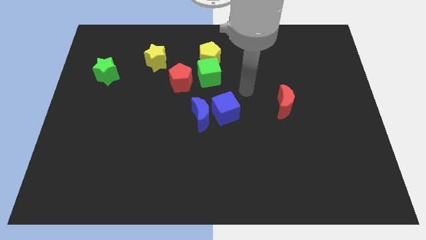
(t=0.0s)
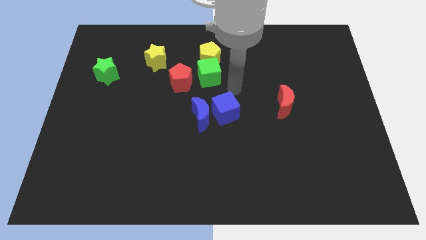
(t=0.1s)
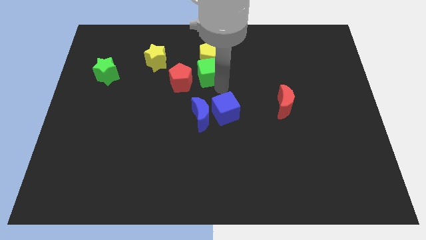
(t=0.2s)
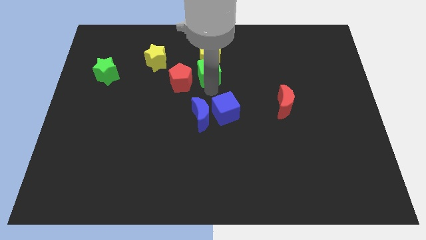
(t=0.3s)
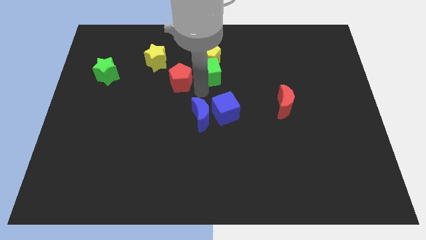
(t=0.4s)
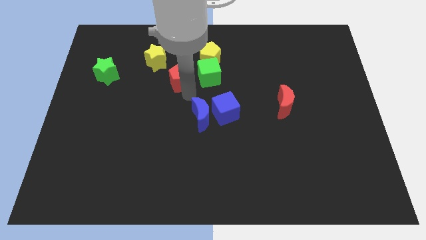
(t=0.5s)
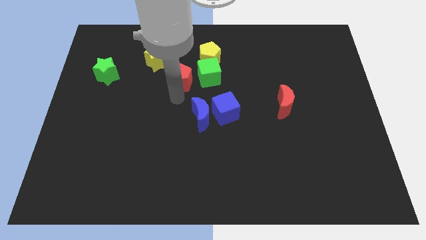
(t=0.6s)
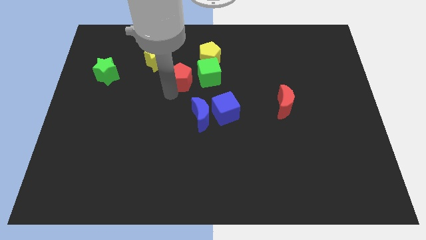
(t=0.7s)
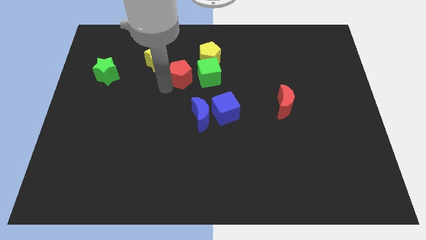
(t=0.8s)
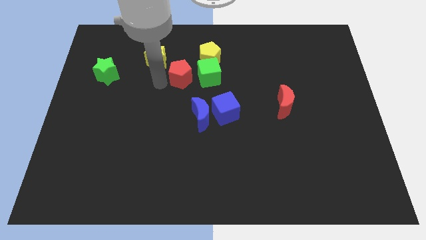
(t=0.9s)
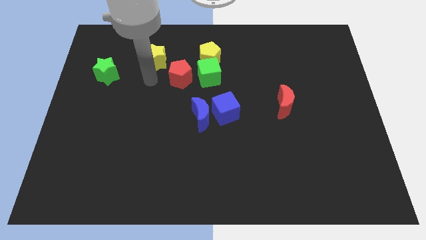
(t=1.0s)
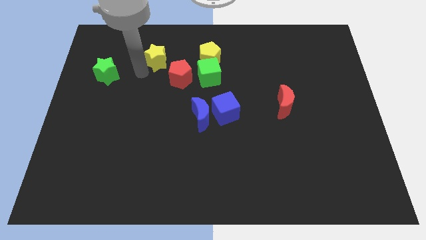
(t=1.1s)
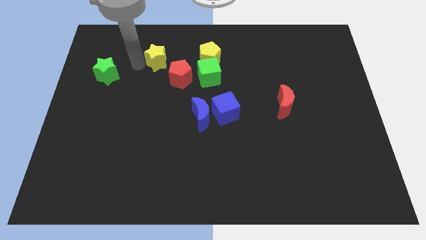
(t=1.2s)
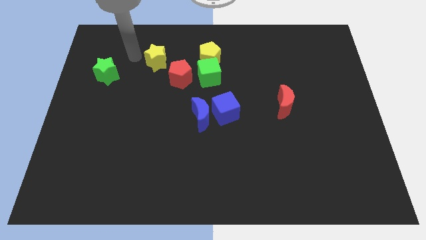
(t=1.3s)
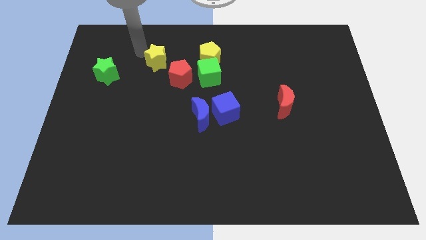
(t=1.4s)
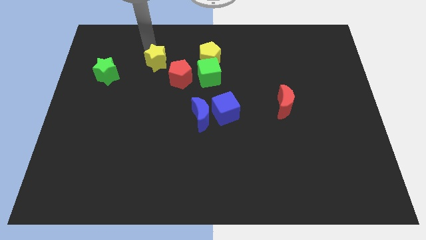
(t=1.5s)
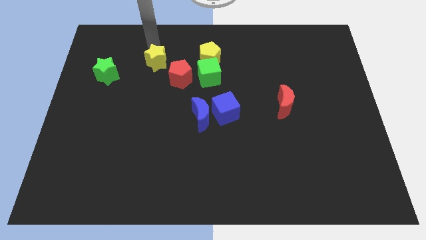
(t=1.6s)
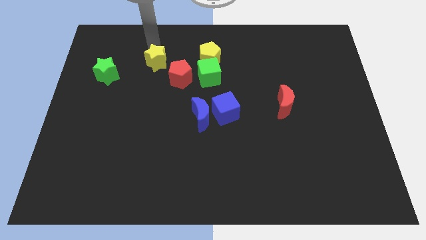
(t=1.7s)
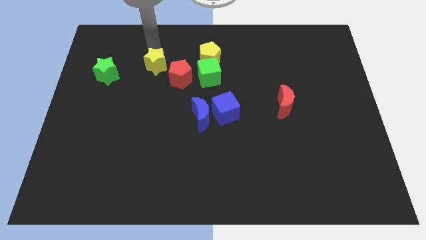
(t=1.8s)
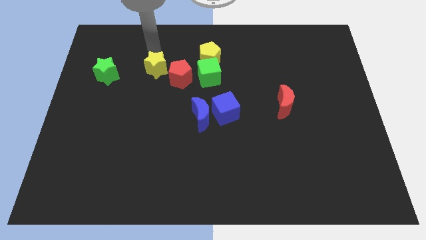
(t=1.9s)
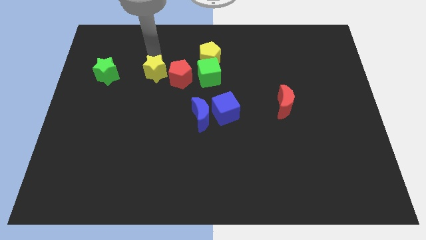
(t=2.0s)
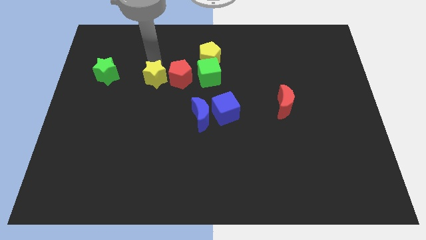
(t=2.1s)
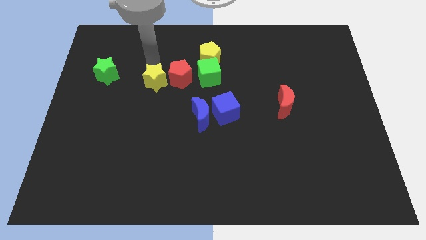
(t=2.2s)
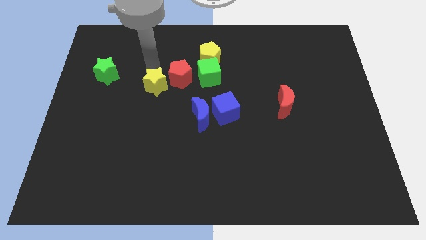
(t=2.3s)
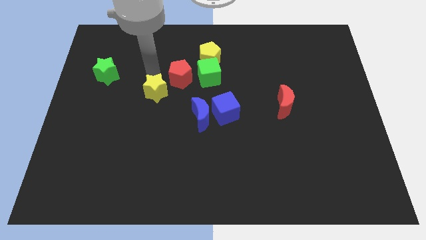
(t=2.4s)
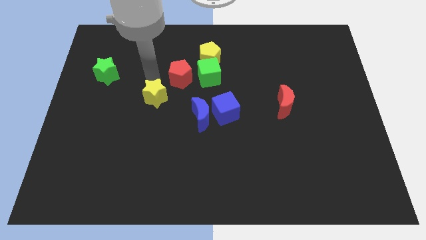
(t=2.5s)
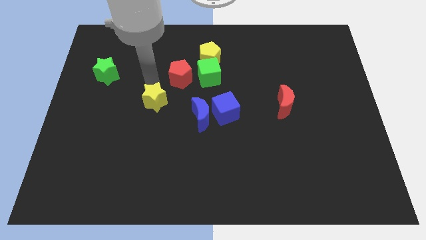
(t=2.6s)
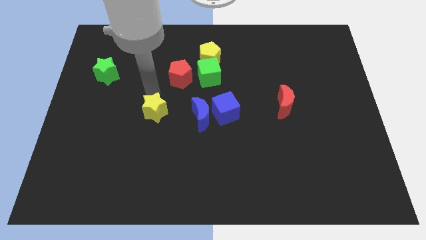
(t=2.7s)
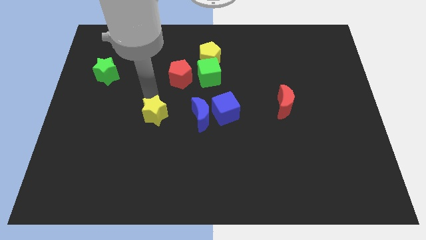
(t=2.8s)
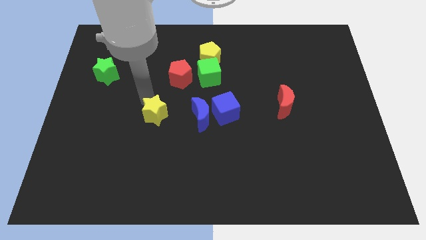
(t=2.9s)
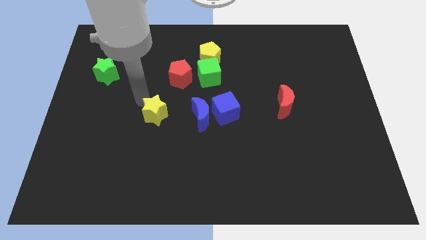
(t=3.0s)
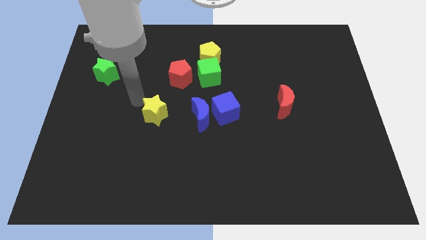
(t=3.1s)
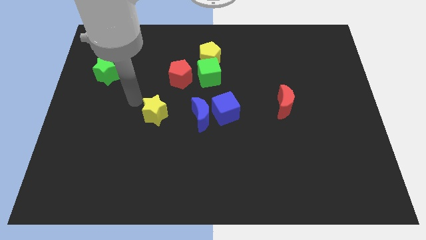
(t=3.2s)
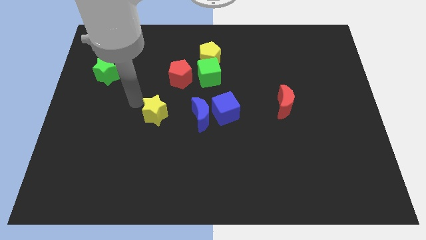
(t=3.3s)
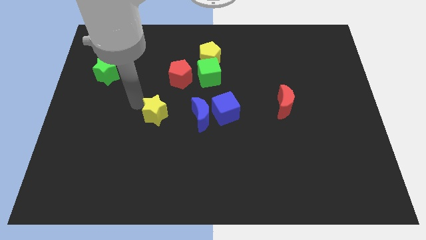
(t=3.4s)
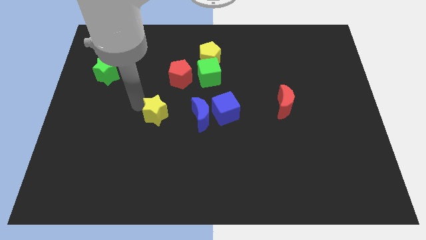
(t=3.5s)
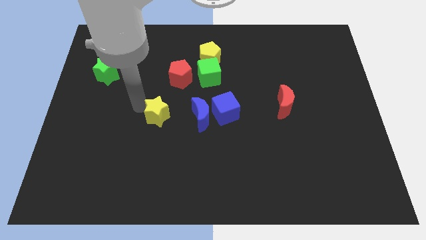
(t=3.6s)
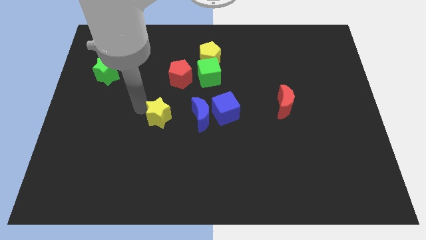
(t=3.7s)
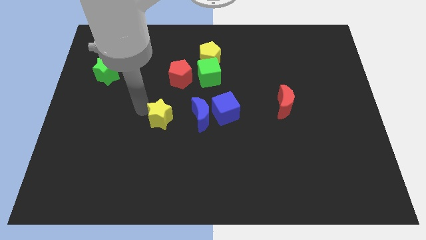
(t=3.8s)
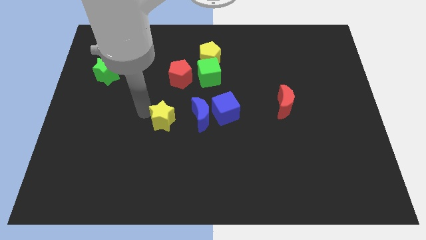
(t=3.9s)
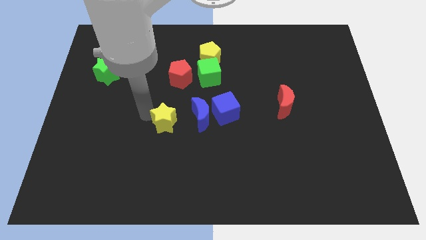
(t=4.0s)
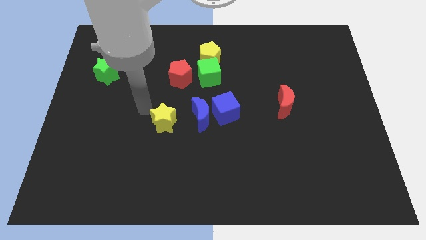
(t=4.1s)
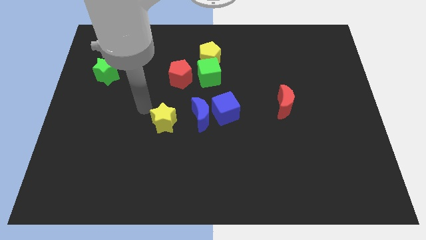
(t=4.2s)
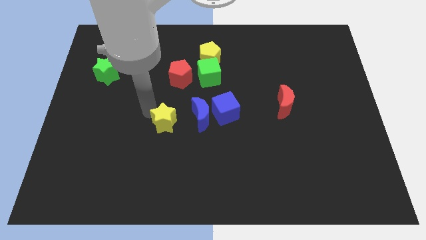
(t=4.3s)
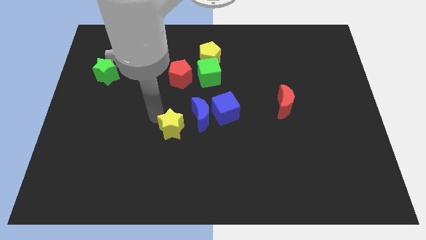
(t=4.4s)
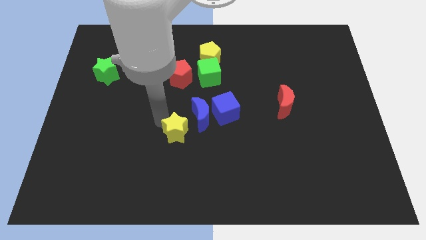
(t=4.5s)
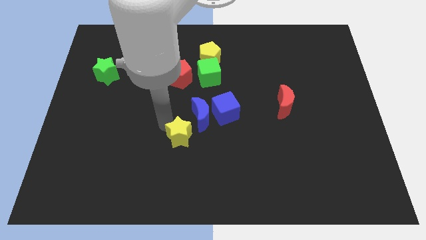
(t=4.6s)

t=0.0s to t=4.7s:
slide the yellow star to the bottom side of the blue moon

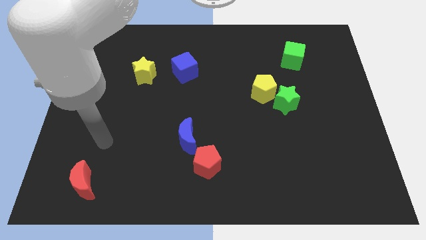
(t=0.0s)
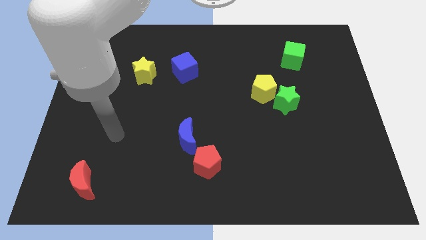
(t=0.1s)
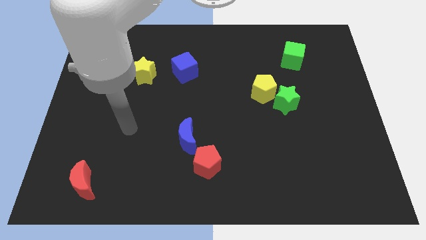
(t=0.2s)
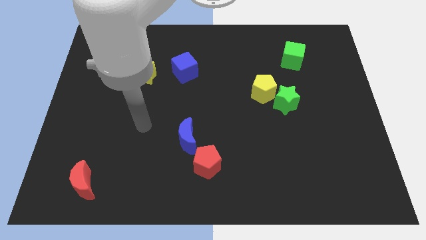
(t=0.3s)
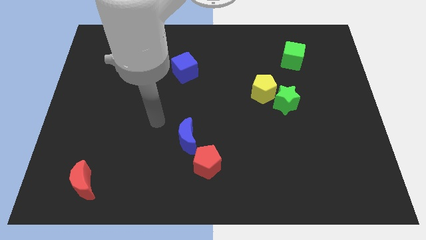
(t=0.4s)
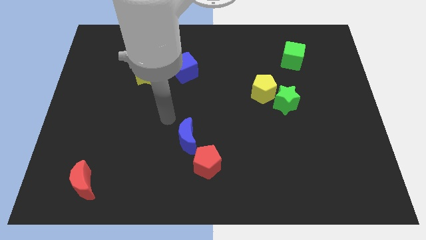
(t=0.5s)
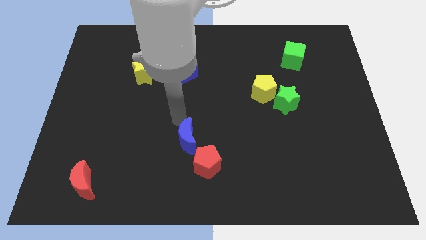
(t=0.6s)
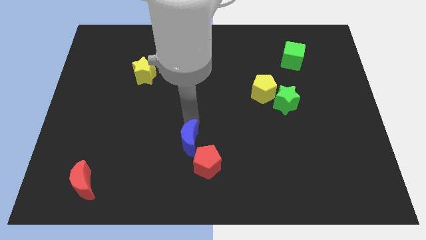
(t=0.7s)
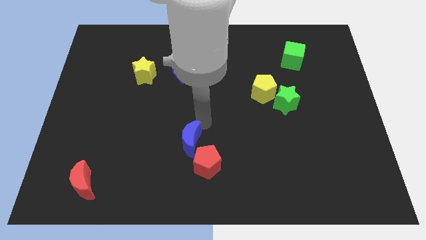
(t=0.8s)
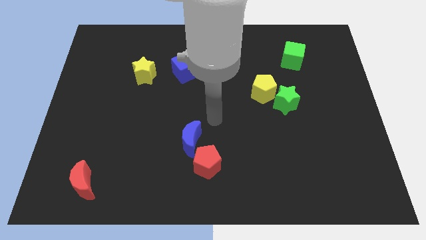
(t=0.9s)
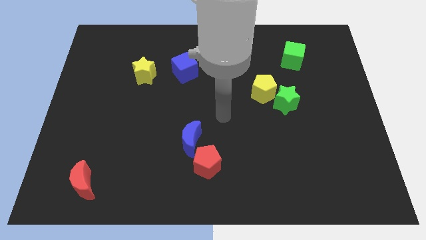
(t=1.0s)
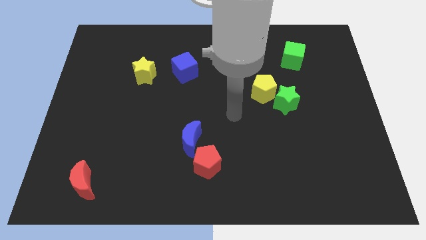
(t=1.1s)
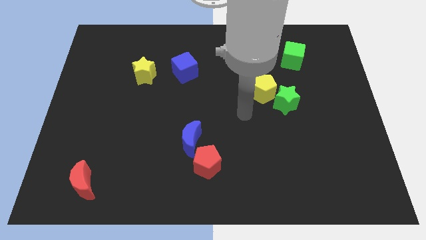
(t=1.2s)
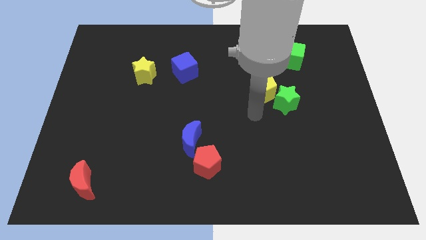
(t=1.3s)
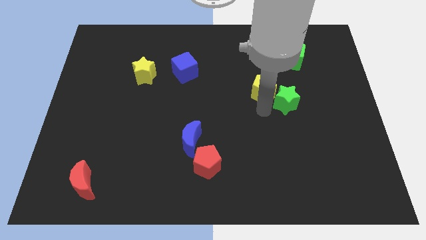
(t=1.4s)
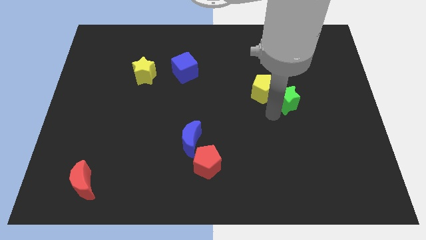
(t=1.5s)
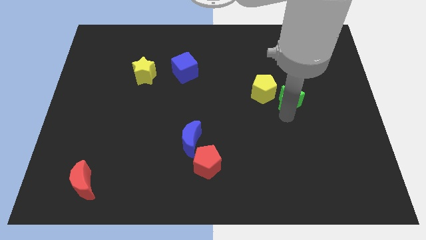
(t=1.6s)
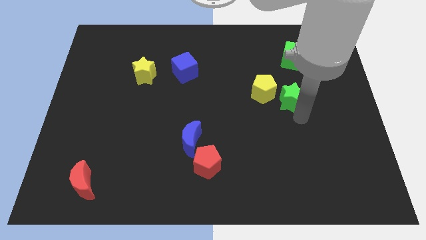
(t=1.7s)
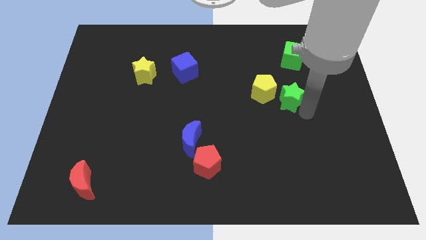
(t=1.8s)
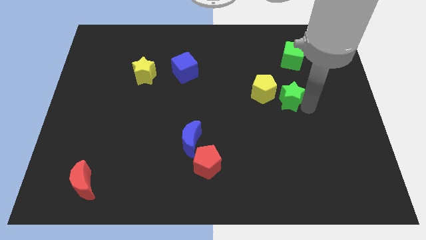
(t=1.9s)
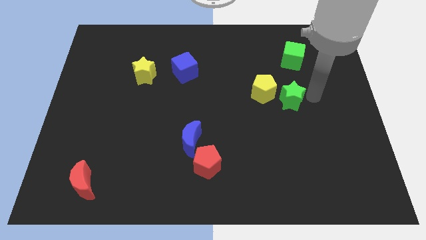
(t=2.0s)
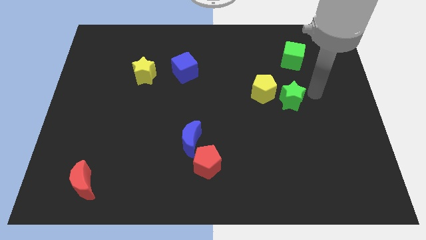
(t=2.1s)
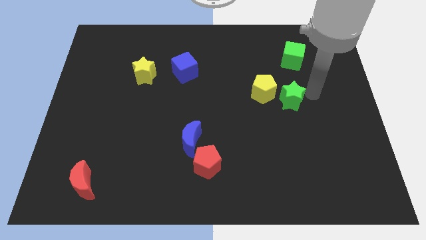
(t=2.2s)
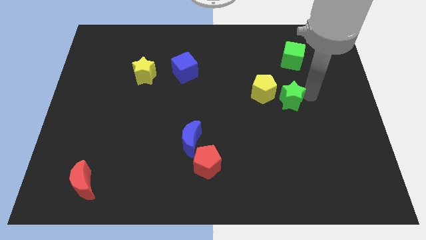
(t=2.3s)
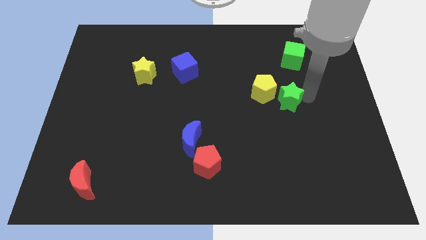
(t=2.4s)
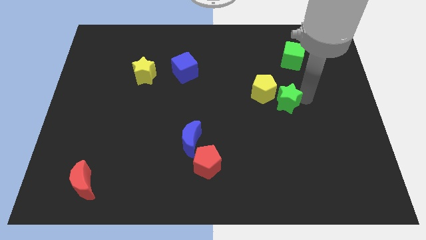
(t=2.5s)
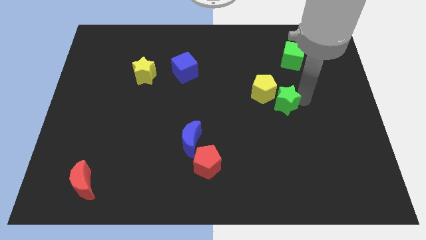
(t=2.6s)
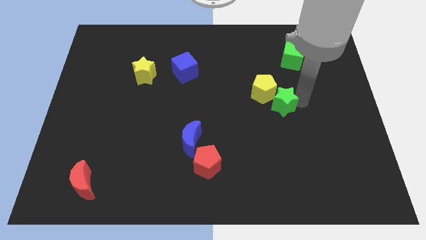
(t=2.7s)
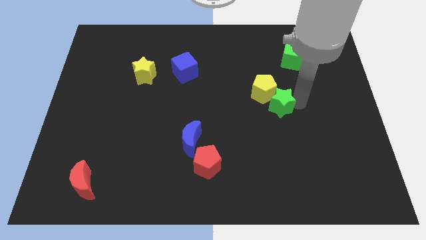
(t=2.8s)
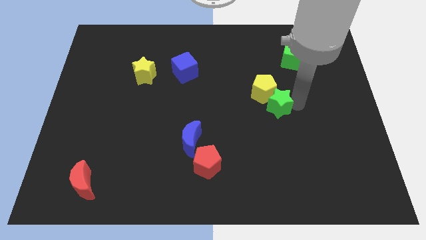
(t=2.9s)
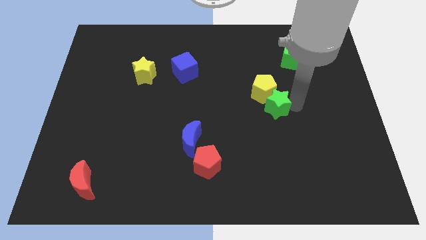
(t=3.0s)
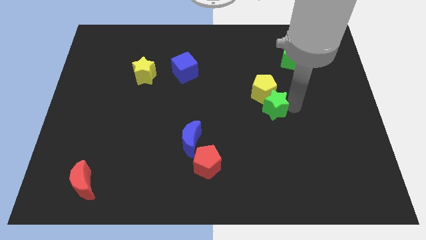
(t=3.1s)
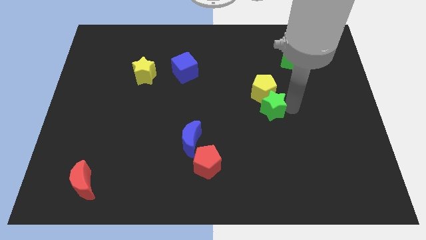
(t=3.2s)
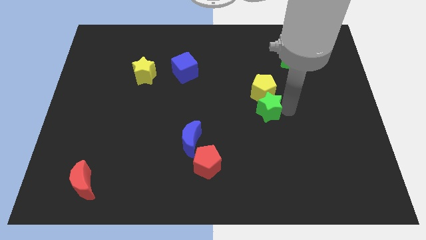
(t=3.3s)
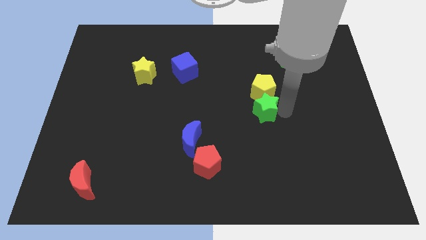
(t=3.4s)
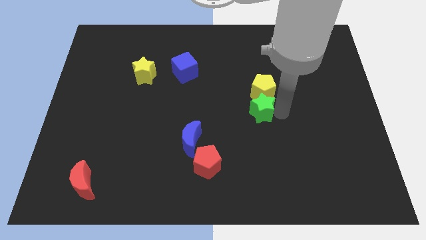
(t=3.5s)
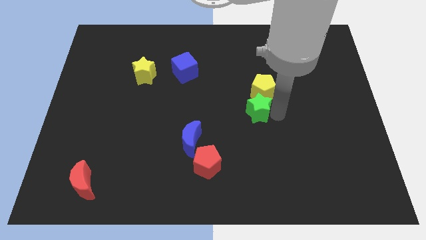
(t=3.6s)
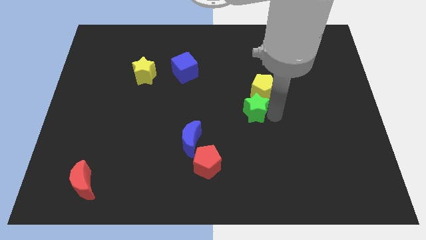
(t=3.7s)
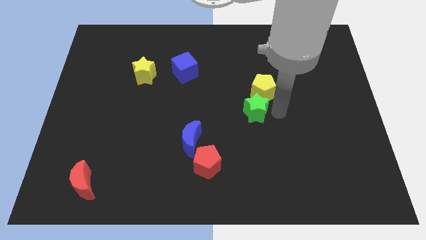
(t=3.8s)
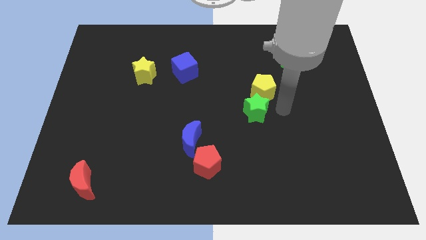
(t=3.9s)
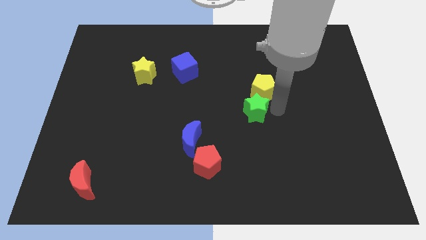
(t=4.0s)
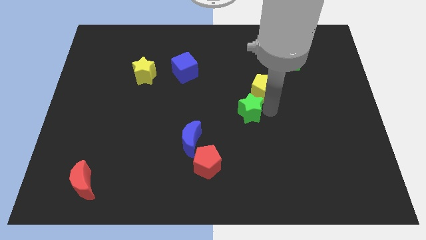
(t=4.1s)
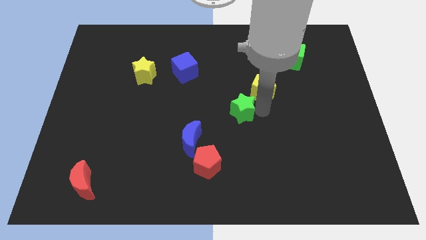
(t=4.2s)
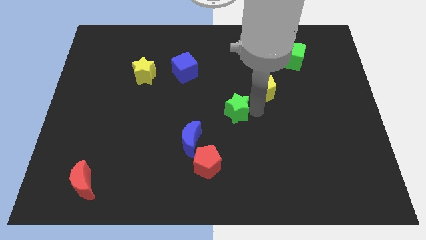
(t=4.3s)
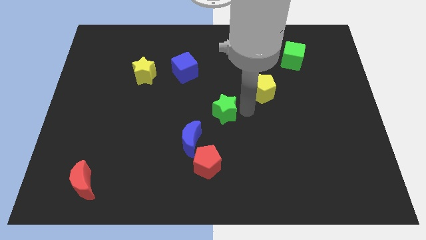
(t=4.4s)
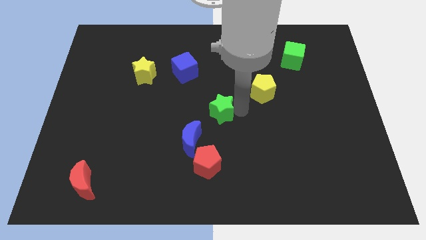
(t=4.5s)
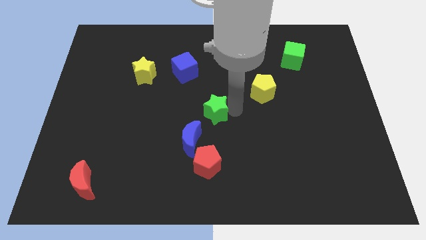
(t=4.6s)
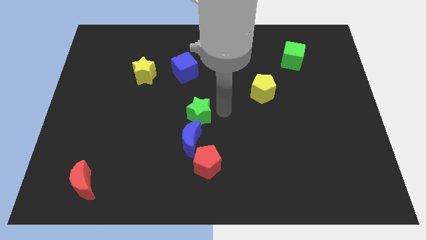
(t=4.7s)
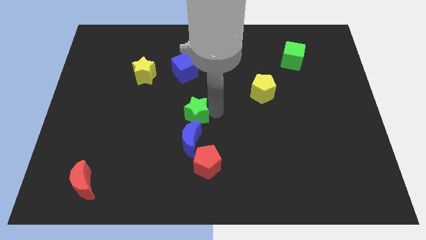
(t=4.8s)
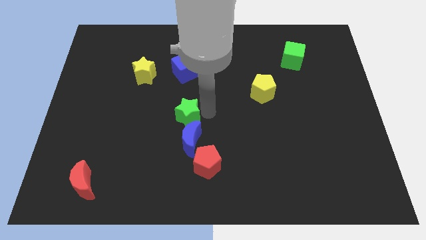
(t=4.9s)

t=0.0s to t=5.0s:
move the green star diagonally up and to the left of the blue moon
